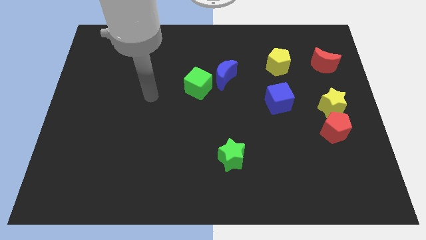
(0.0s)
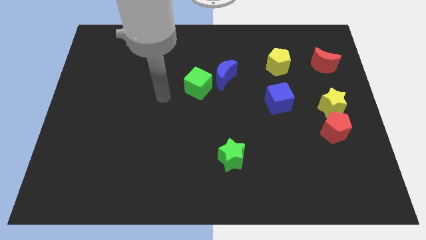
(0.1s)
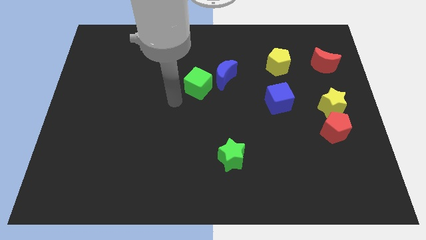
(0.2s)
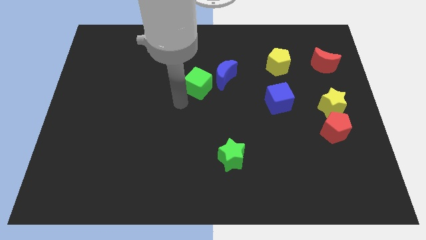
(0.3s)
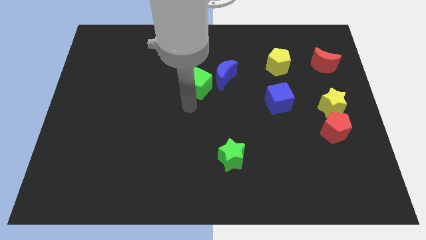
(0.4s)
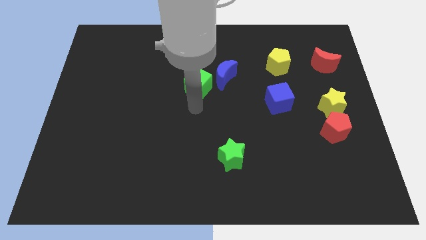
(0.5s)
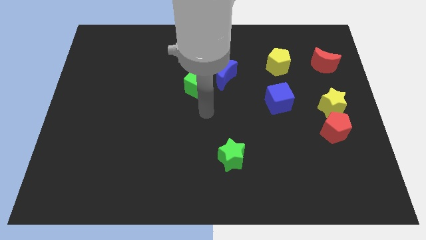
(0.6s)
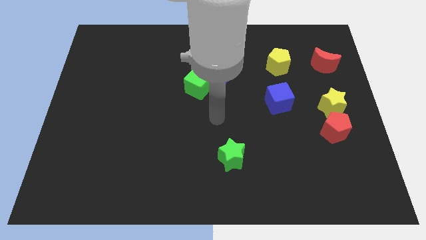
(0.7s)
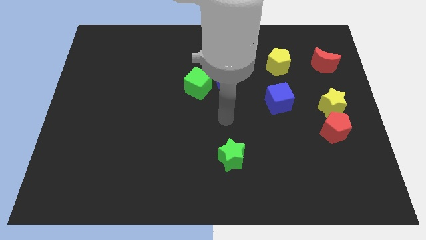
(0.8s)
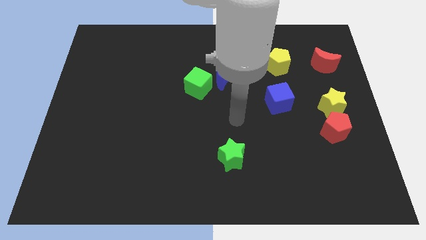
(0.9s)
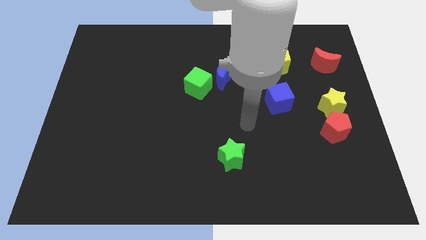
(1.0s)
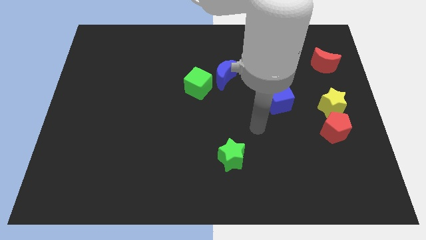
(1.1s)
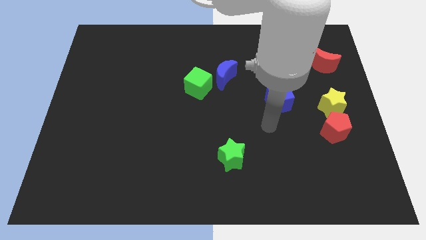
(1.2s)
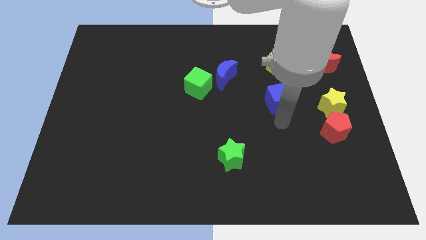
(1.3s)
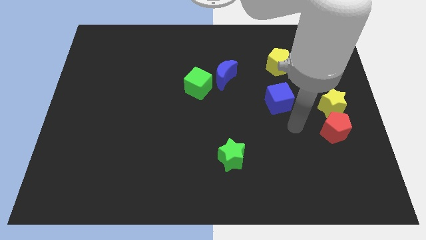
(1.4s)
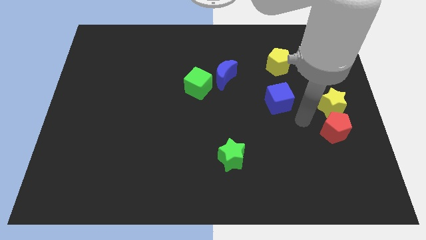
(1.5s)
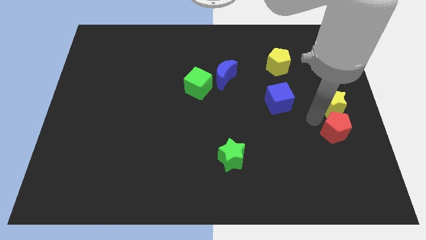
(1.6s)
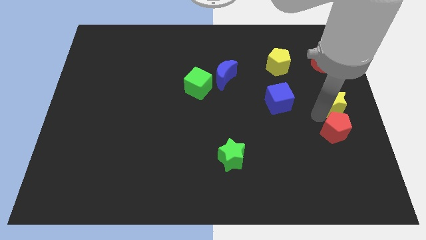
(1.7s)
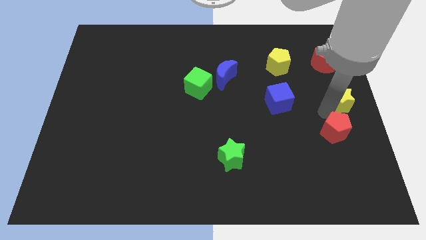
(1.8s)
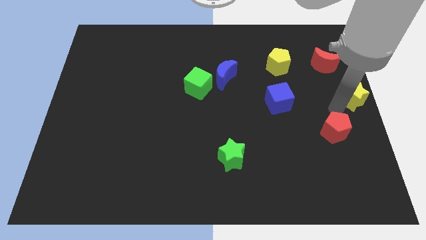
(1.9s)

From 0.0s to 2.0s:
pull the red pentagon apart from the yellow star

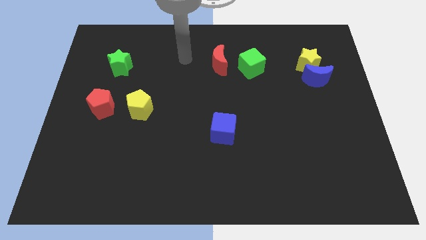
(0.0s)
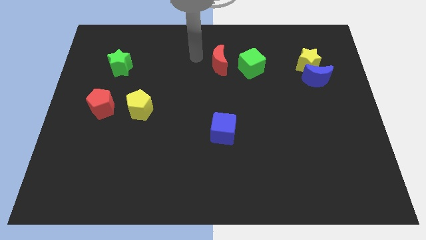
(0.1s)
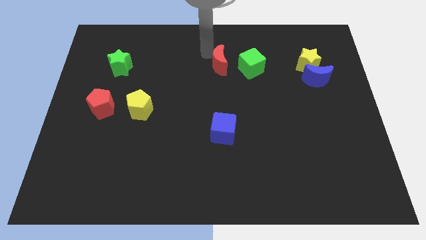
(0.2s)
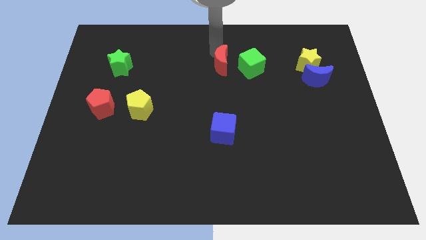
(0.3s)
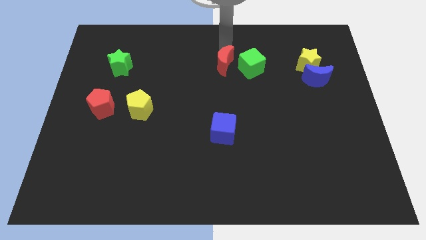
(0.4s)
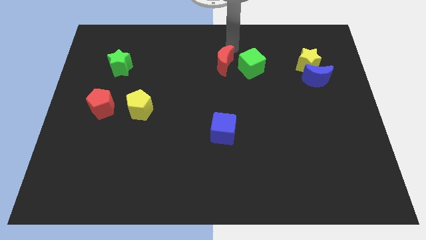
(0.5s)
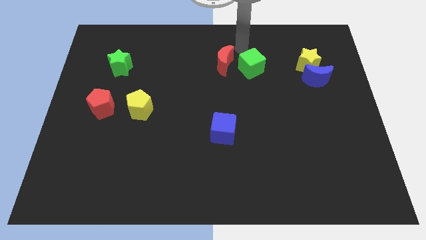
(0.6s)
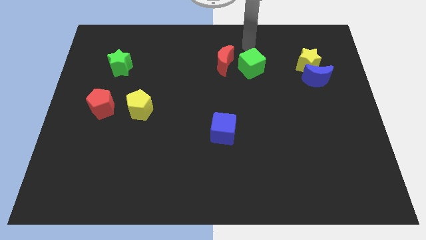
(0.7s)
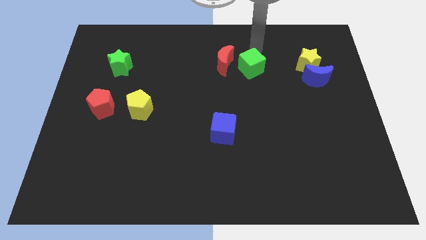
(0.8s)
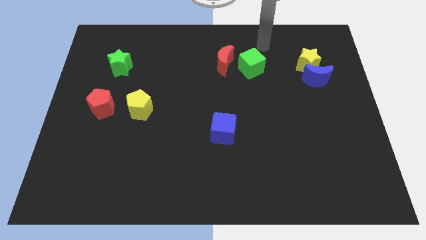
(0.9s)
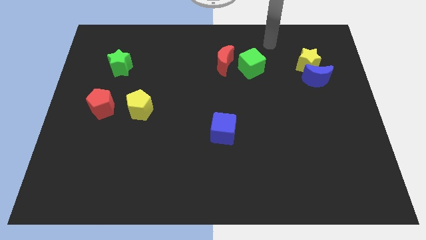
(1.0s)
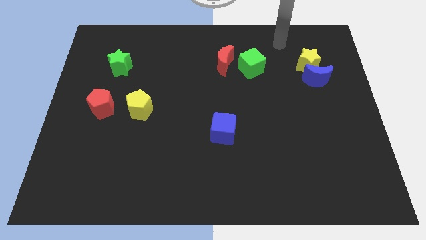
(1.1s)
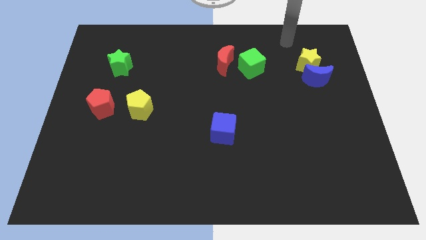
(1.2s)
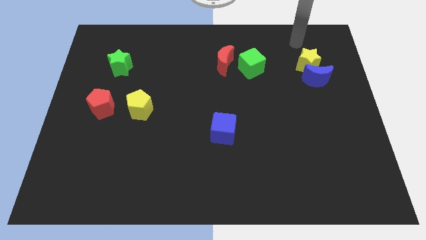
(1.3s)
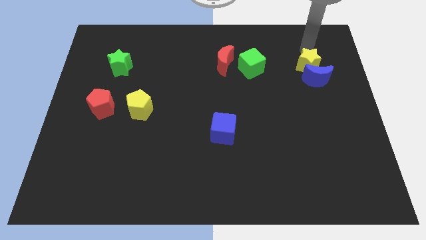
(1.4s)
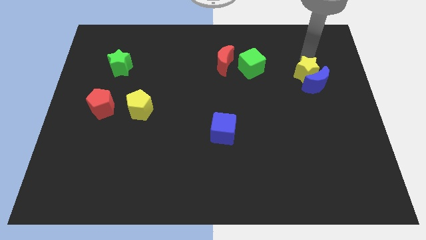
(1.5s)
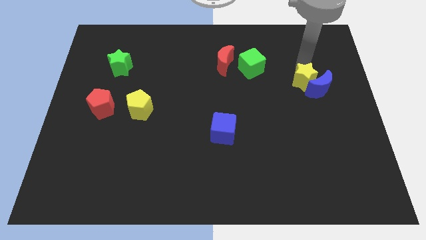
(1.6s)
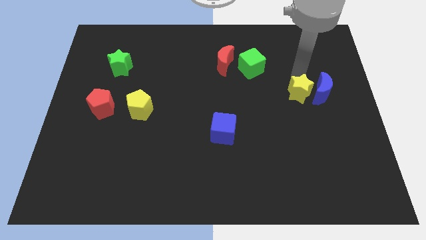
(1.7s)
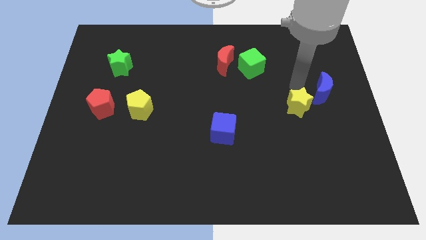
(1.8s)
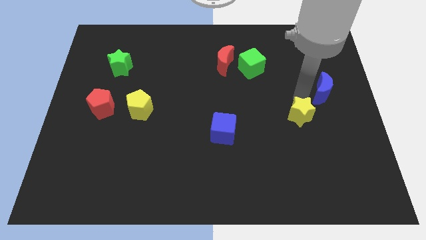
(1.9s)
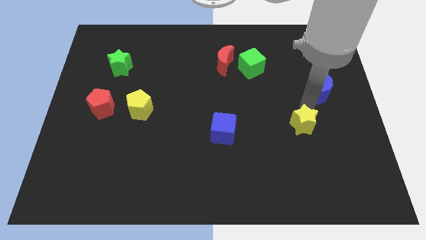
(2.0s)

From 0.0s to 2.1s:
separate the blue moon from the yellow star

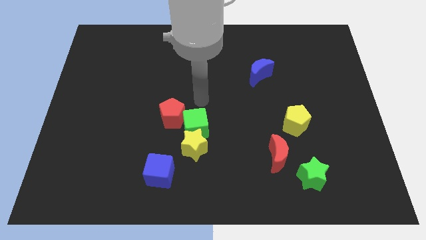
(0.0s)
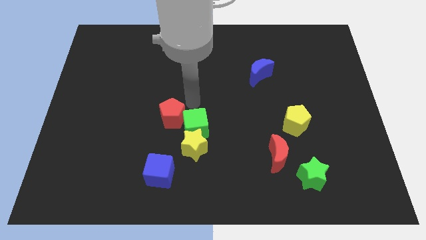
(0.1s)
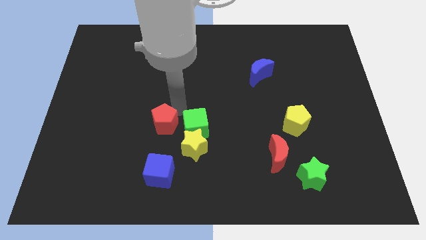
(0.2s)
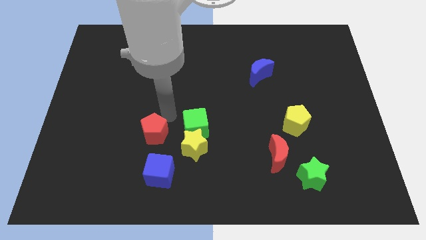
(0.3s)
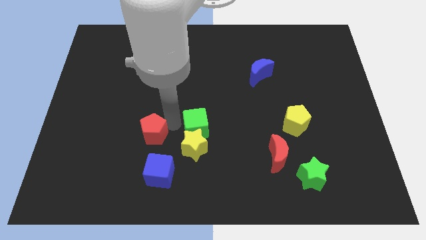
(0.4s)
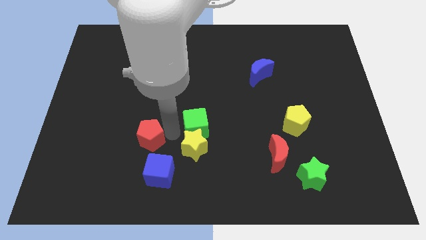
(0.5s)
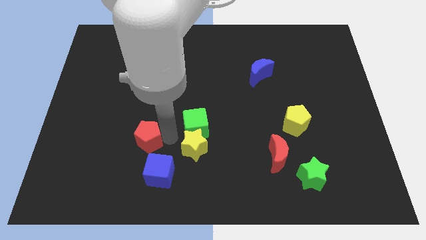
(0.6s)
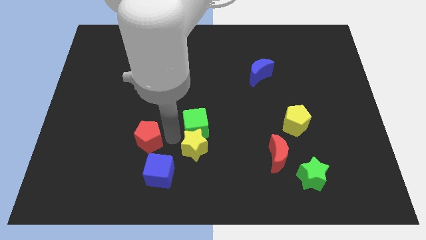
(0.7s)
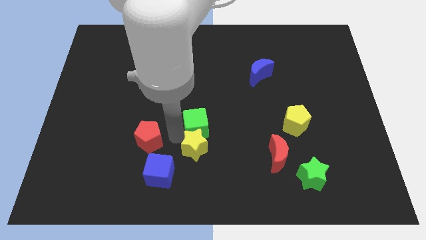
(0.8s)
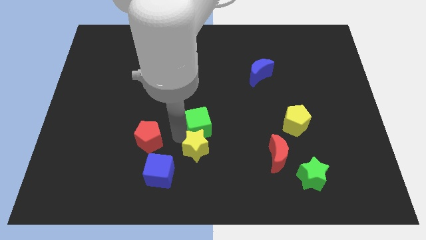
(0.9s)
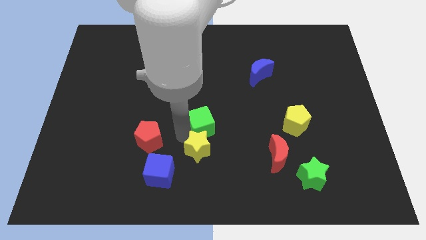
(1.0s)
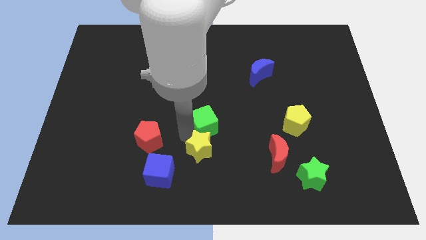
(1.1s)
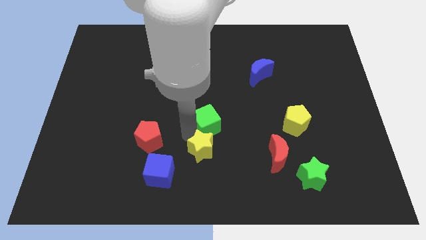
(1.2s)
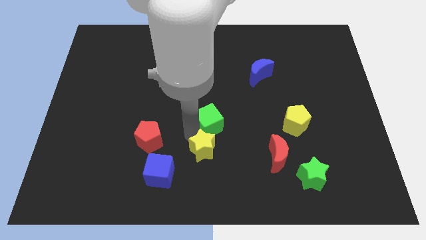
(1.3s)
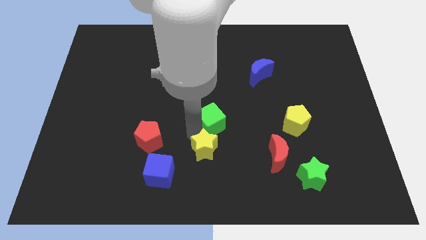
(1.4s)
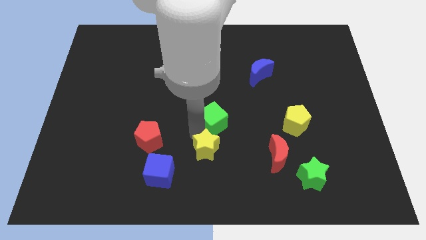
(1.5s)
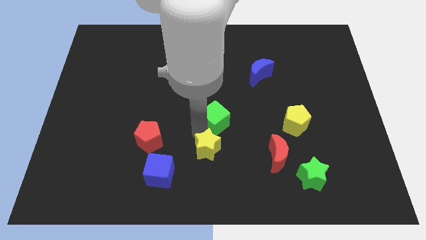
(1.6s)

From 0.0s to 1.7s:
pull the green cube apart from the yellow star and red pentagon

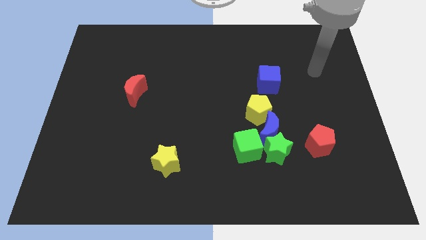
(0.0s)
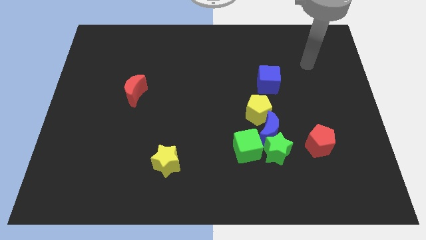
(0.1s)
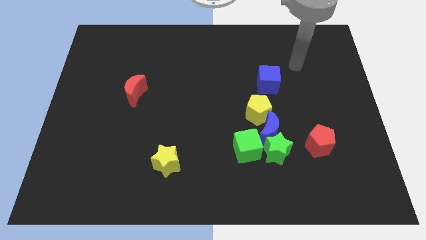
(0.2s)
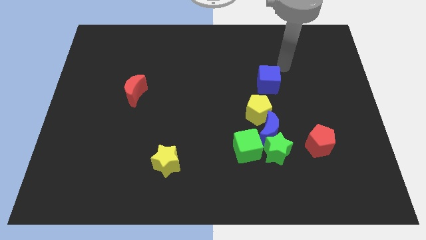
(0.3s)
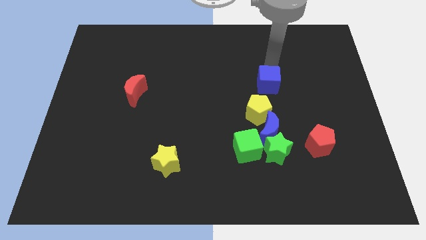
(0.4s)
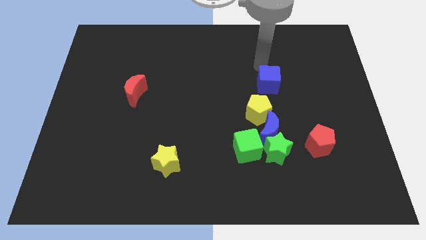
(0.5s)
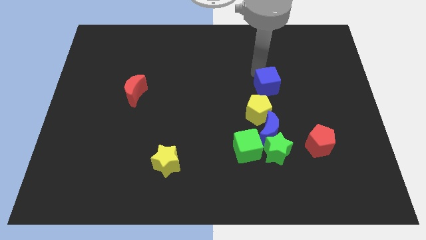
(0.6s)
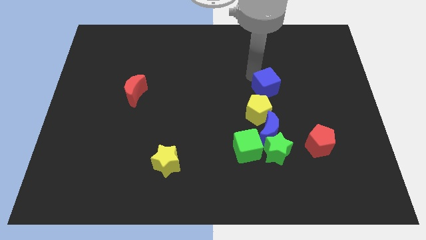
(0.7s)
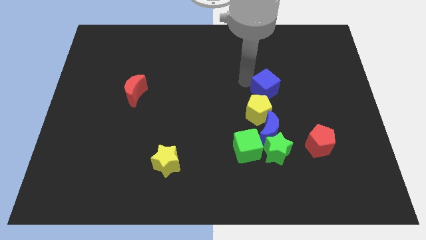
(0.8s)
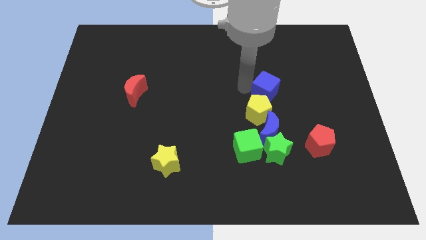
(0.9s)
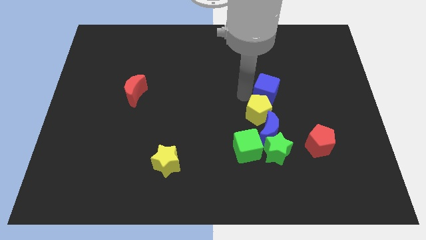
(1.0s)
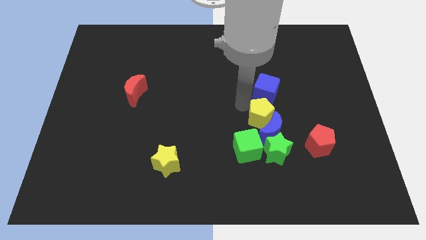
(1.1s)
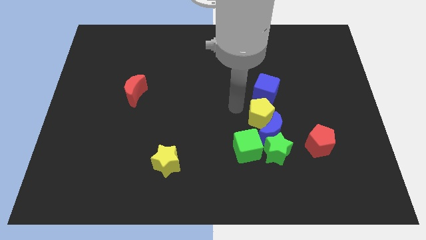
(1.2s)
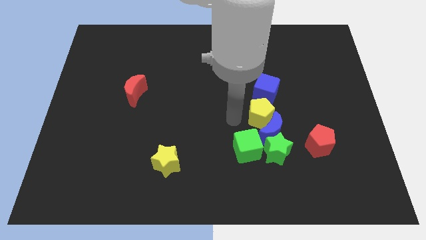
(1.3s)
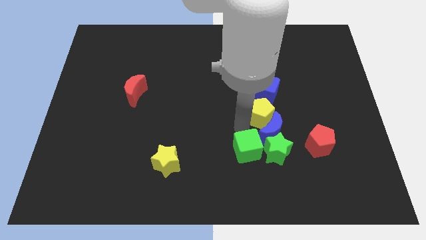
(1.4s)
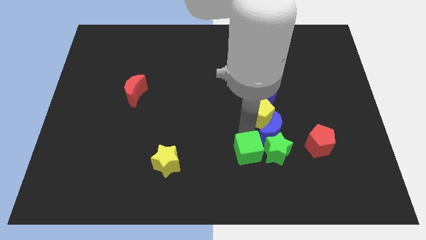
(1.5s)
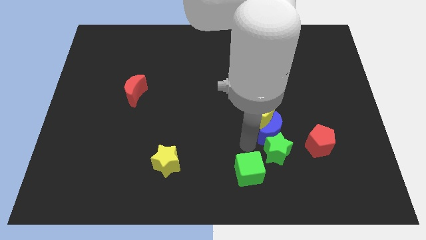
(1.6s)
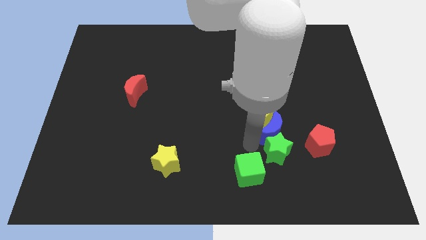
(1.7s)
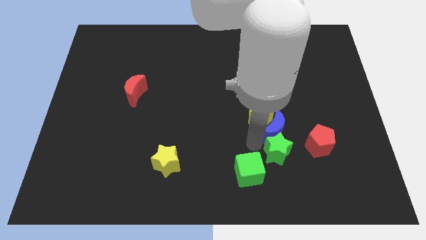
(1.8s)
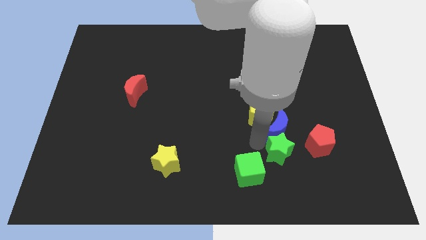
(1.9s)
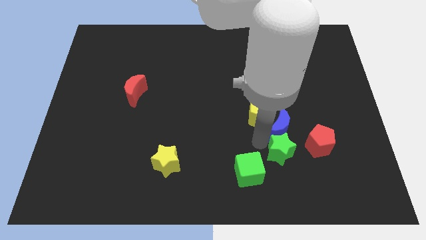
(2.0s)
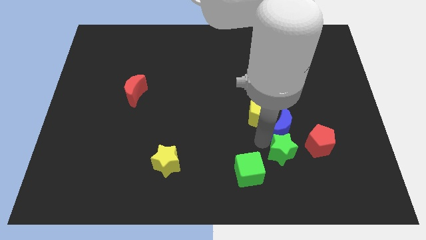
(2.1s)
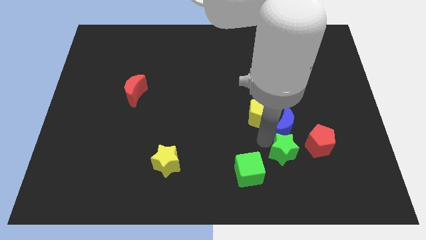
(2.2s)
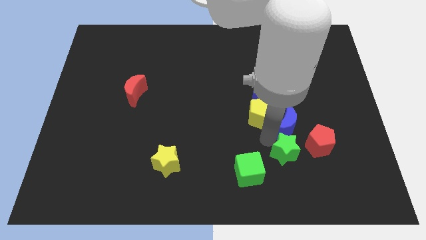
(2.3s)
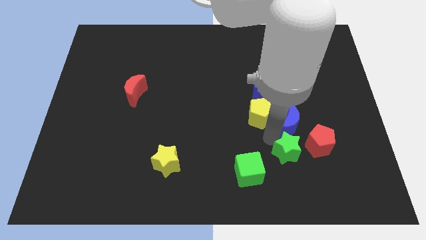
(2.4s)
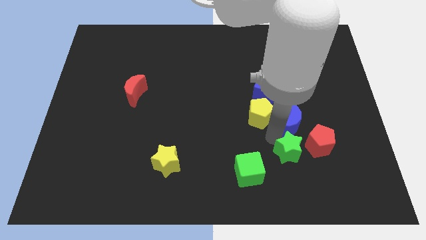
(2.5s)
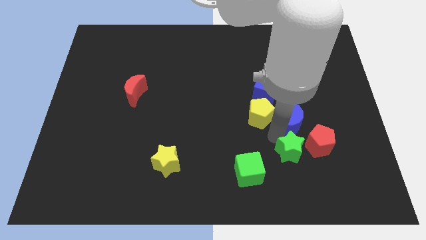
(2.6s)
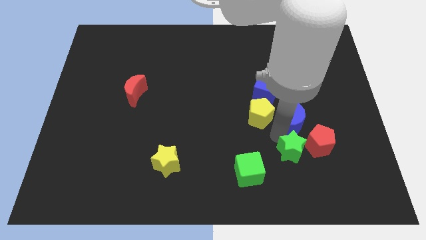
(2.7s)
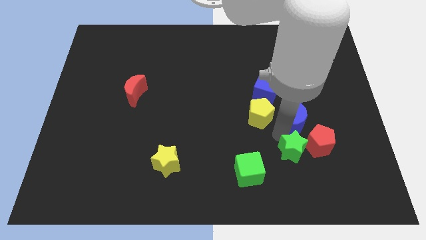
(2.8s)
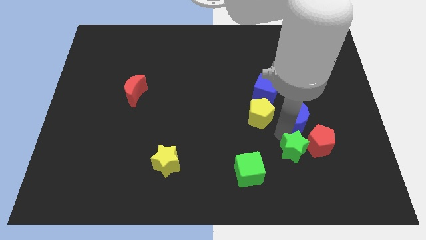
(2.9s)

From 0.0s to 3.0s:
move the blue moon away from the group of blocks

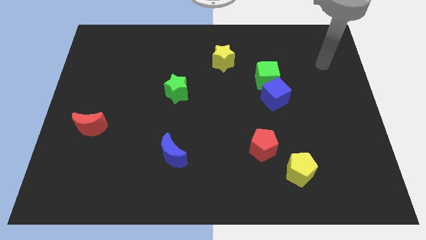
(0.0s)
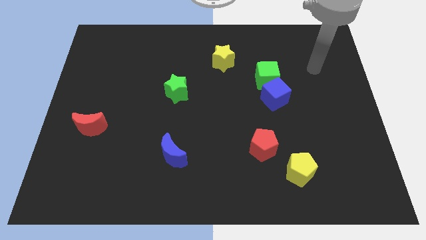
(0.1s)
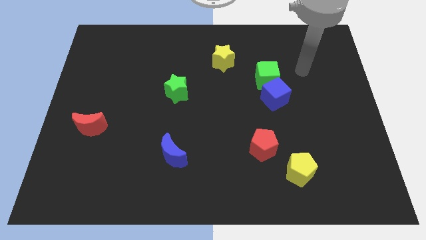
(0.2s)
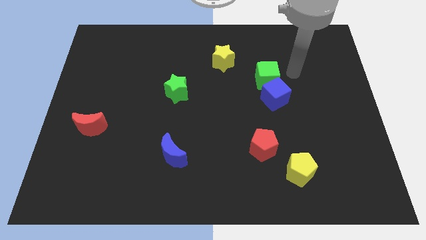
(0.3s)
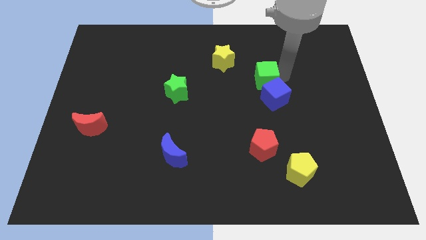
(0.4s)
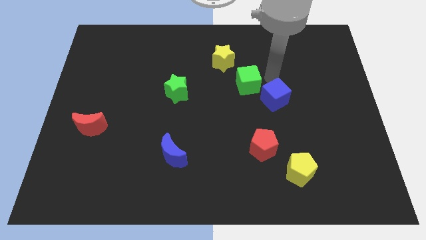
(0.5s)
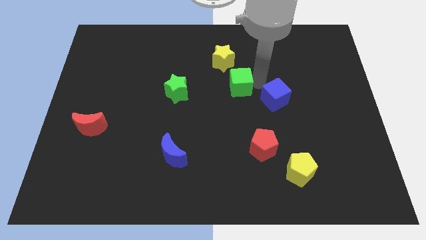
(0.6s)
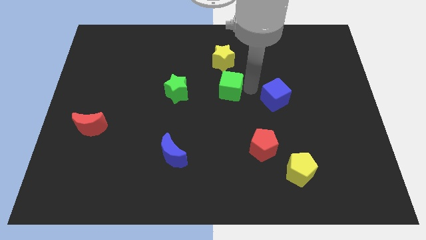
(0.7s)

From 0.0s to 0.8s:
pull the blue cube apart from the green cube
